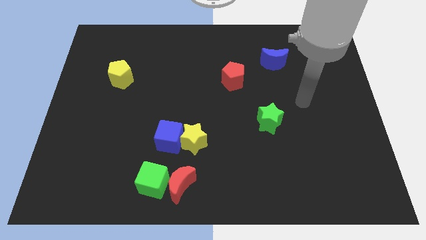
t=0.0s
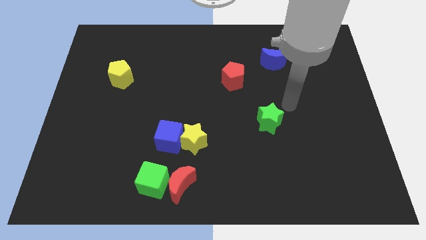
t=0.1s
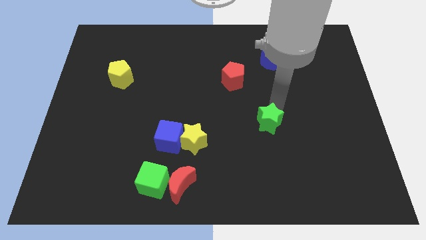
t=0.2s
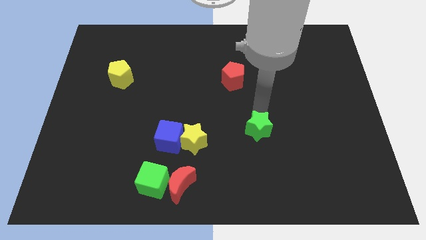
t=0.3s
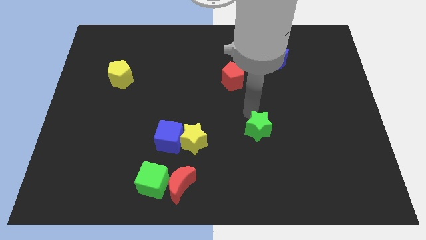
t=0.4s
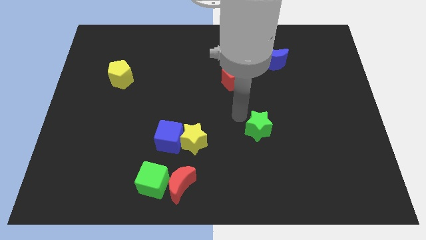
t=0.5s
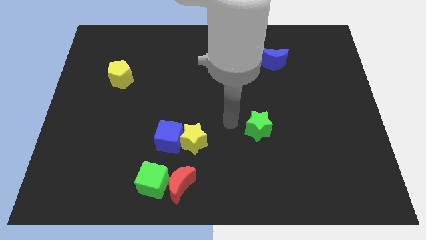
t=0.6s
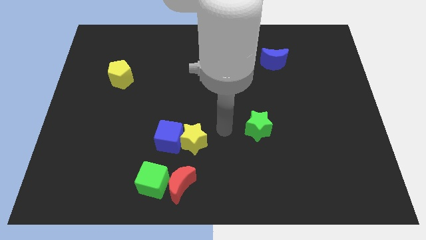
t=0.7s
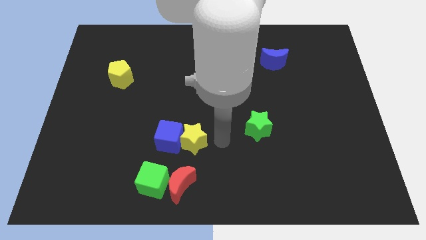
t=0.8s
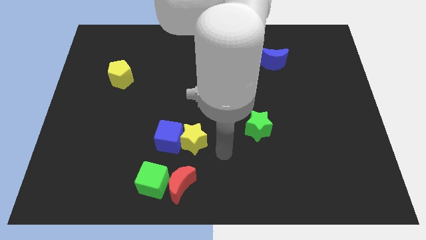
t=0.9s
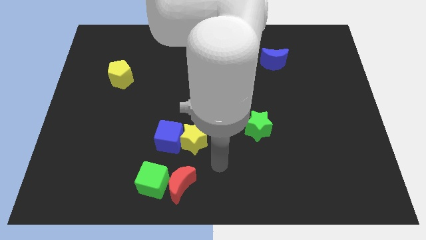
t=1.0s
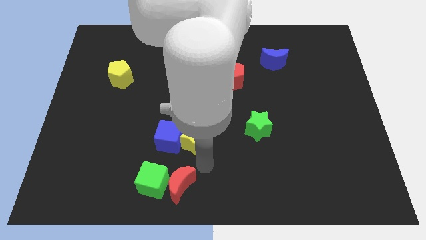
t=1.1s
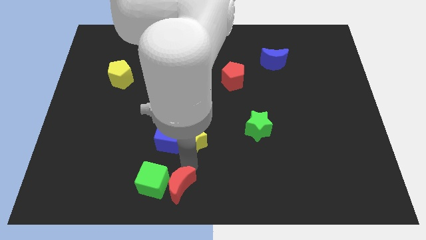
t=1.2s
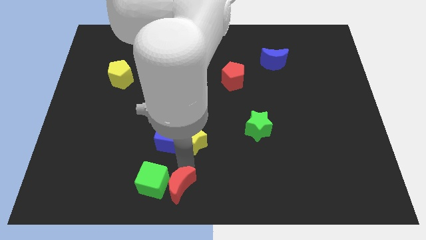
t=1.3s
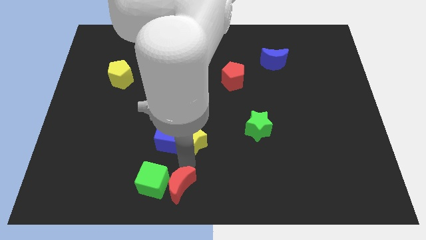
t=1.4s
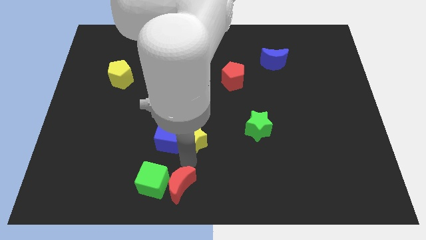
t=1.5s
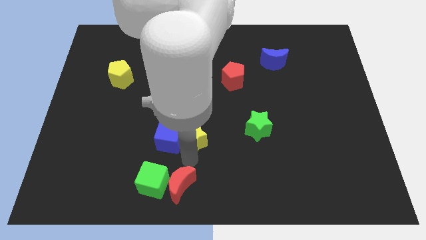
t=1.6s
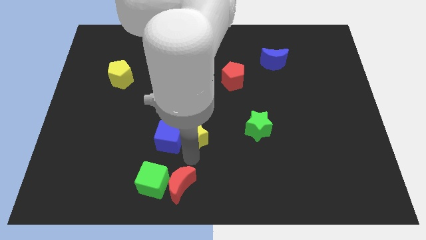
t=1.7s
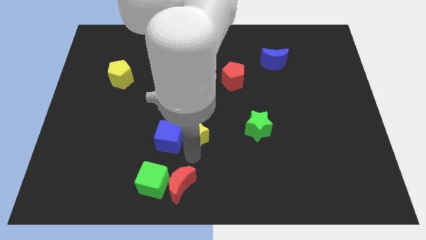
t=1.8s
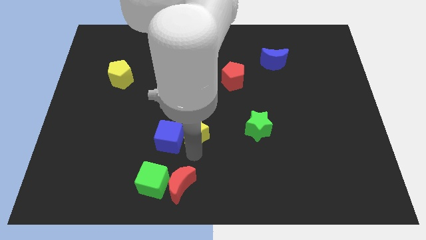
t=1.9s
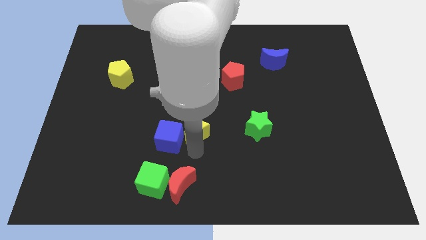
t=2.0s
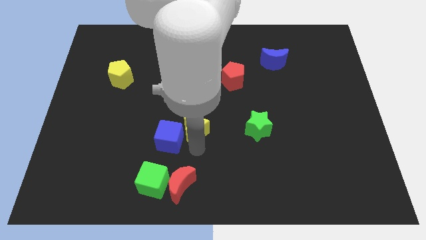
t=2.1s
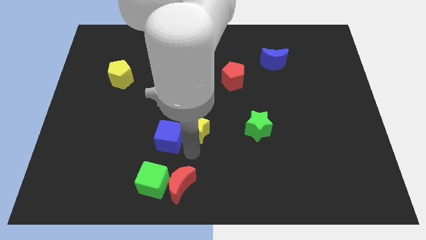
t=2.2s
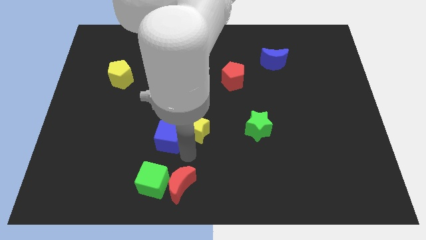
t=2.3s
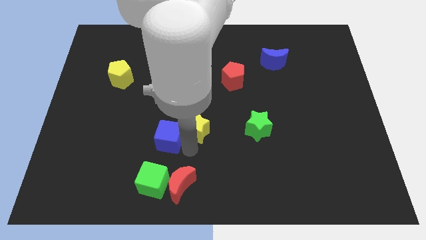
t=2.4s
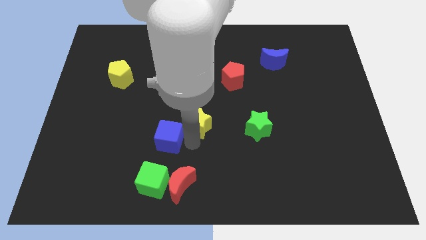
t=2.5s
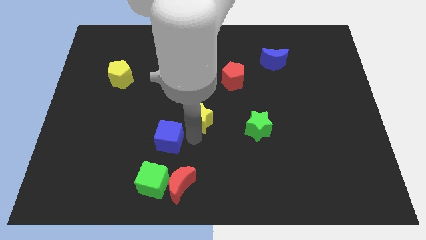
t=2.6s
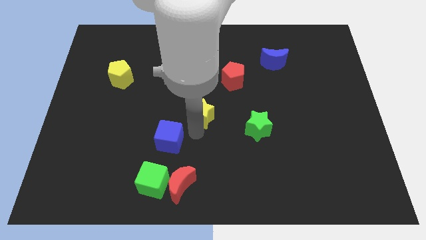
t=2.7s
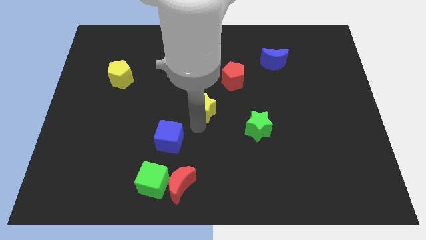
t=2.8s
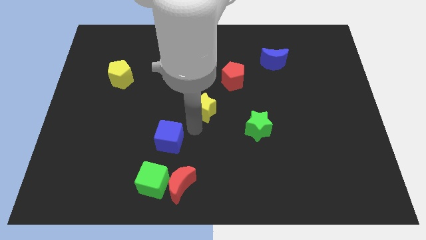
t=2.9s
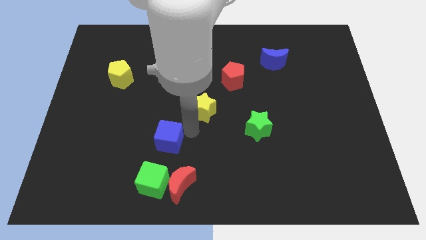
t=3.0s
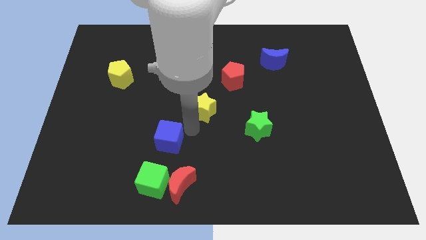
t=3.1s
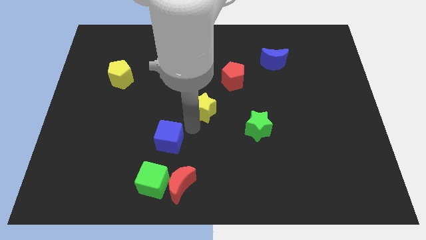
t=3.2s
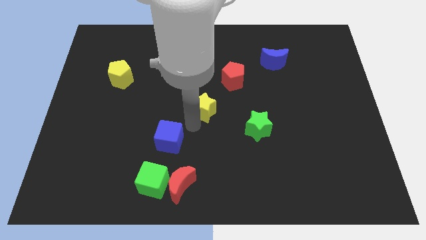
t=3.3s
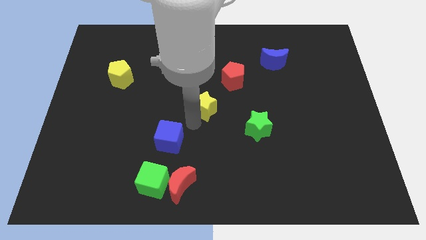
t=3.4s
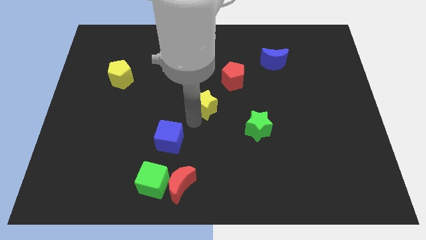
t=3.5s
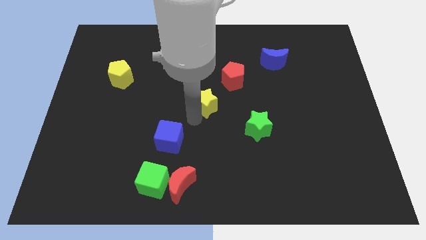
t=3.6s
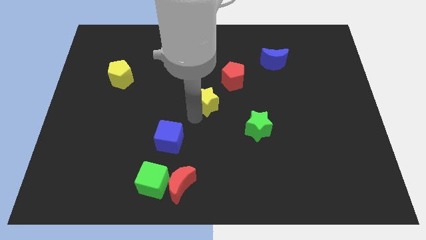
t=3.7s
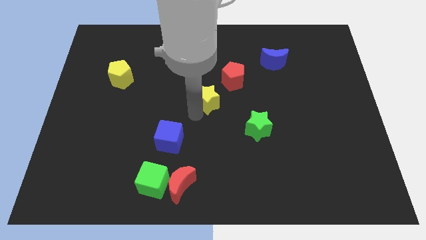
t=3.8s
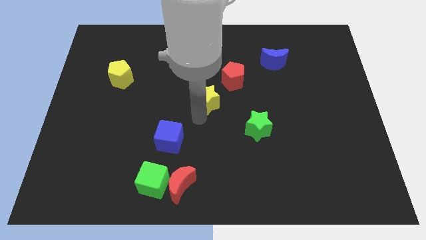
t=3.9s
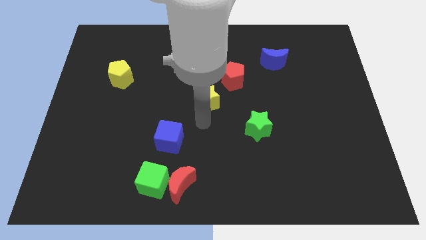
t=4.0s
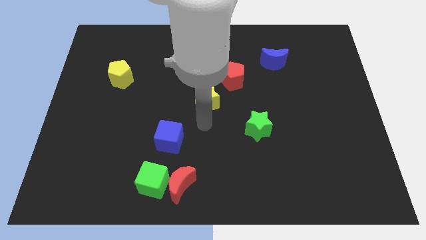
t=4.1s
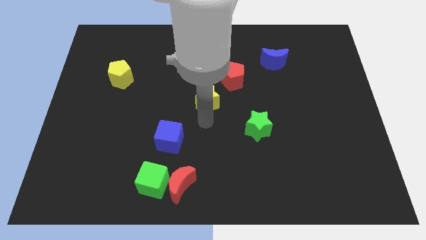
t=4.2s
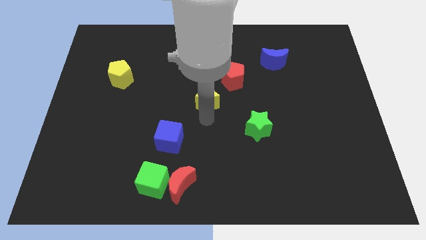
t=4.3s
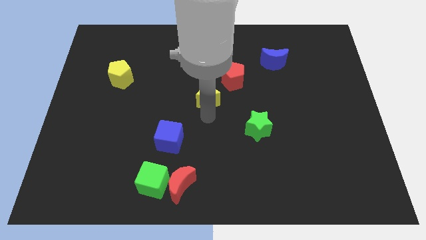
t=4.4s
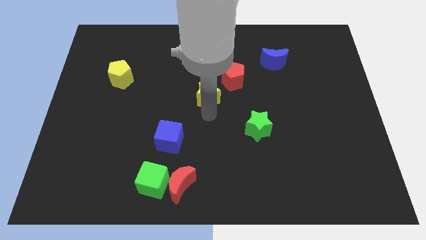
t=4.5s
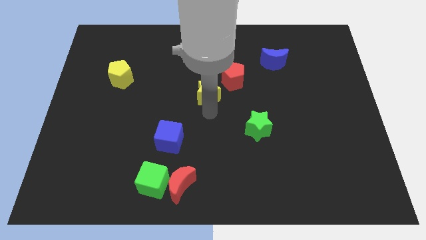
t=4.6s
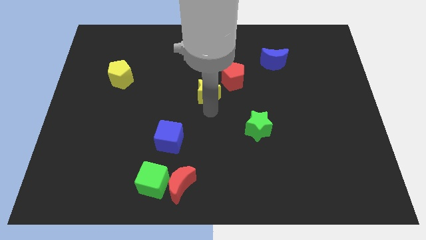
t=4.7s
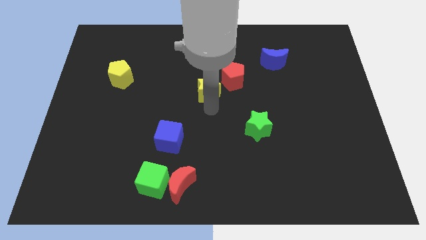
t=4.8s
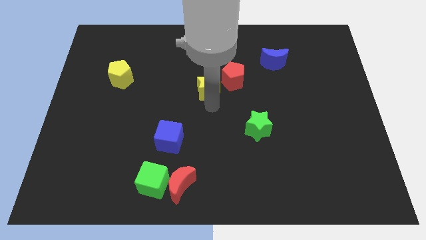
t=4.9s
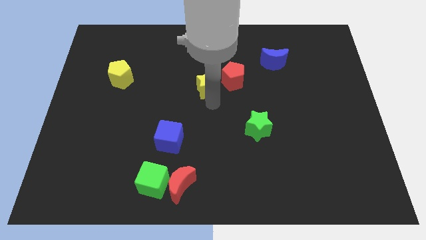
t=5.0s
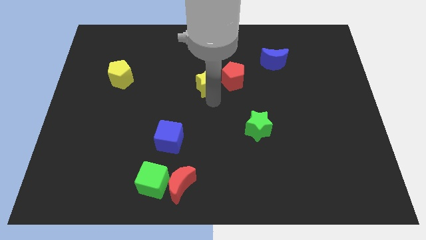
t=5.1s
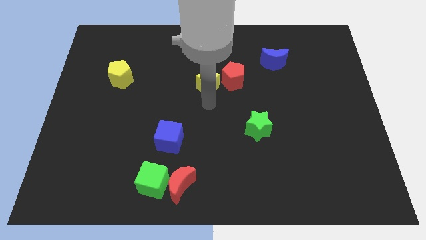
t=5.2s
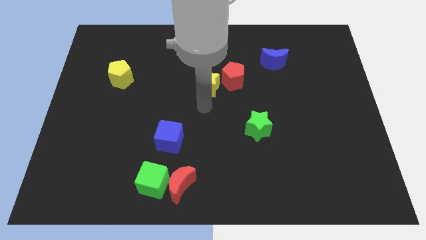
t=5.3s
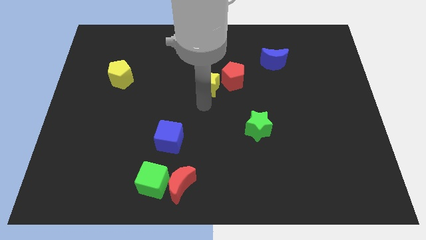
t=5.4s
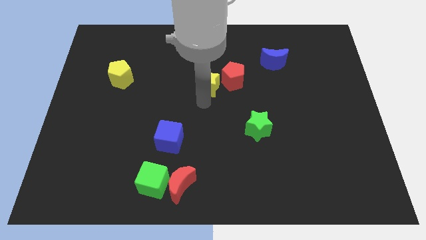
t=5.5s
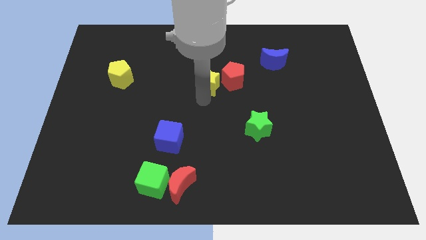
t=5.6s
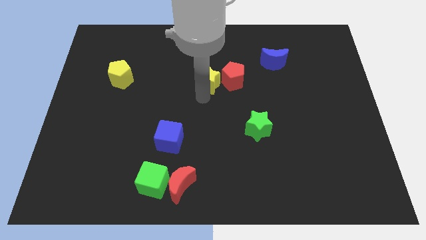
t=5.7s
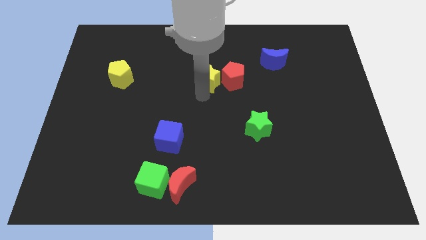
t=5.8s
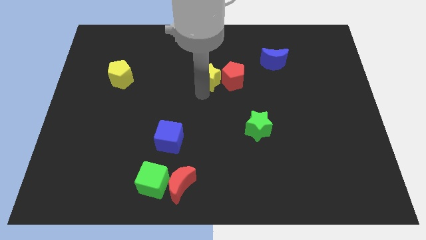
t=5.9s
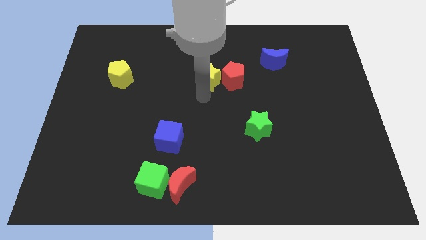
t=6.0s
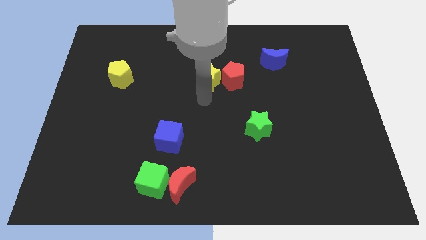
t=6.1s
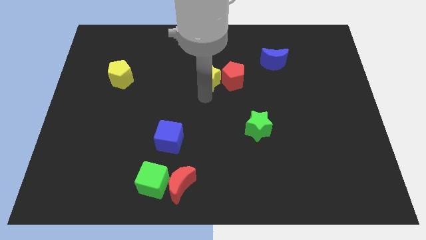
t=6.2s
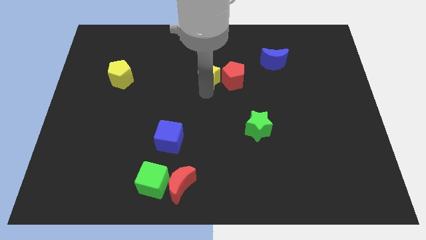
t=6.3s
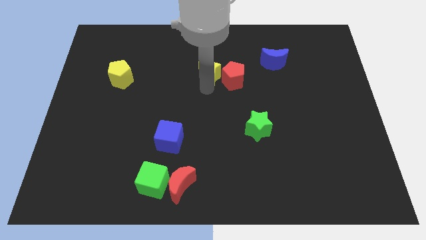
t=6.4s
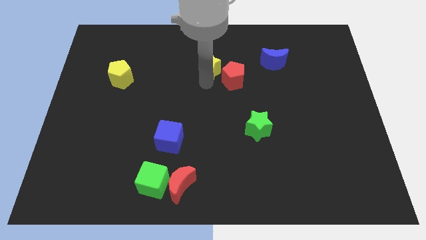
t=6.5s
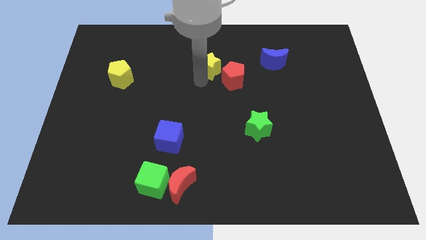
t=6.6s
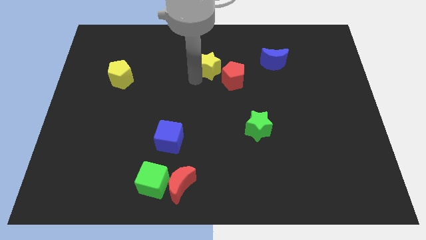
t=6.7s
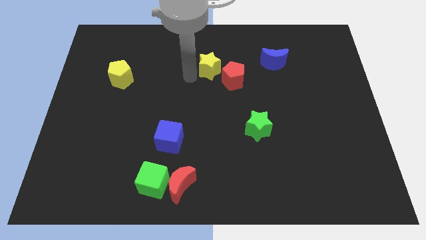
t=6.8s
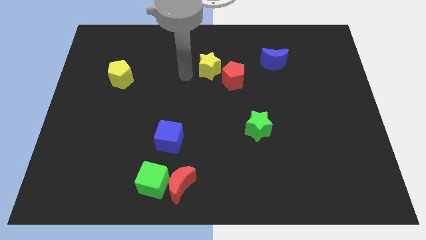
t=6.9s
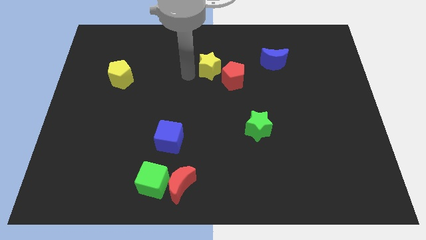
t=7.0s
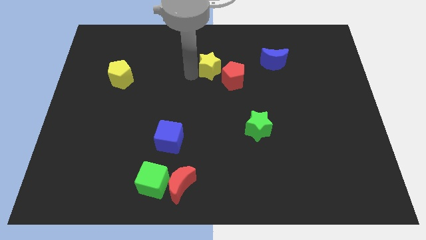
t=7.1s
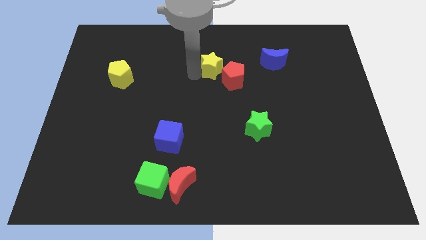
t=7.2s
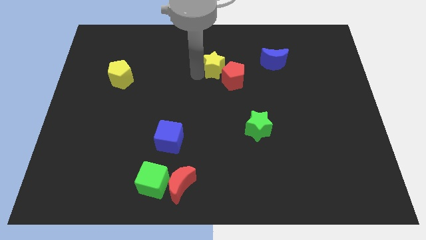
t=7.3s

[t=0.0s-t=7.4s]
push the yellow star left of the blue moon

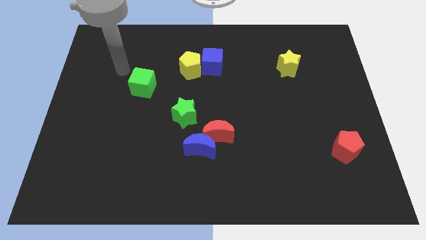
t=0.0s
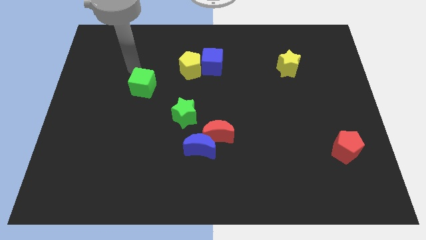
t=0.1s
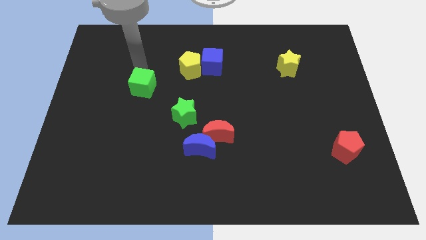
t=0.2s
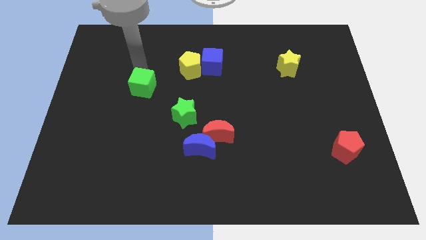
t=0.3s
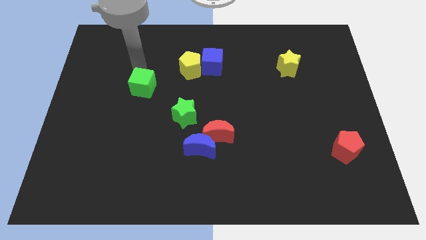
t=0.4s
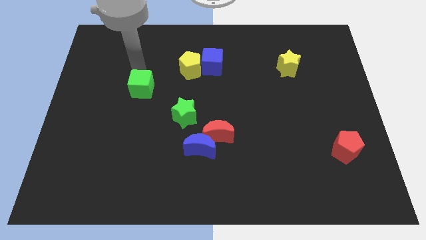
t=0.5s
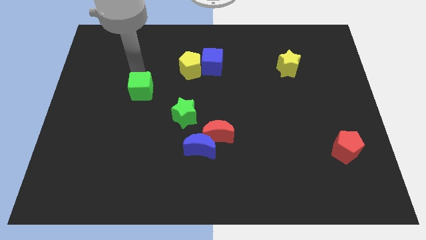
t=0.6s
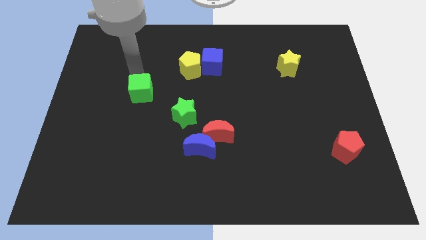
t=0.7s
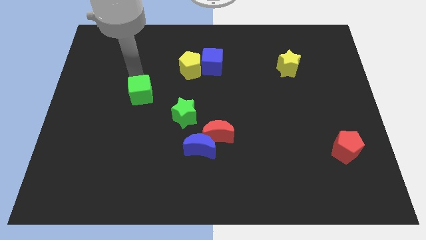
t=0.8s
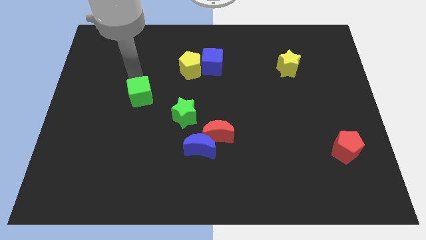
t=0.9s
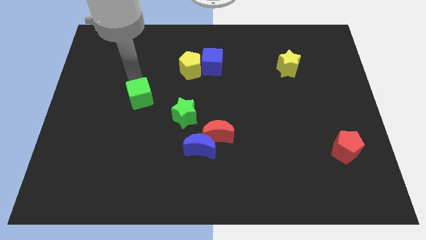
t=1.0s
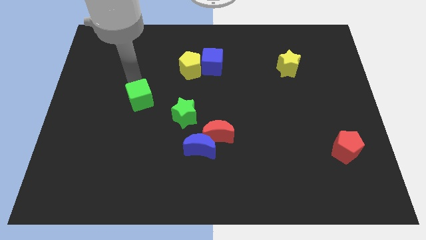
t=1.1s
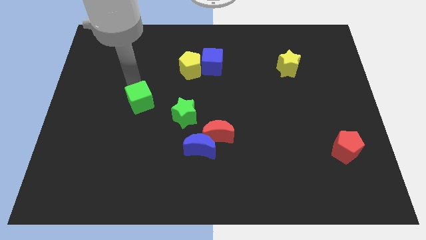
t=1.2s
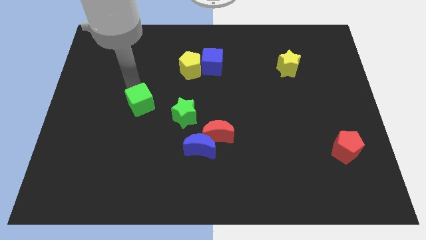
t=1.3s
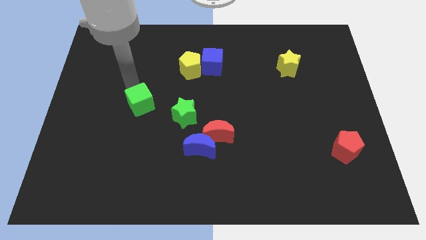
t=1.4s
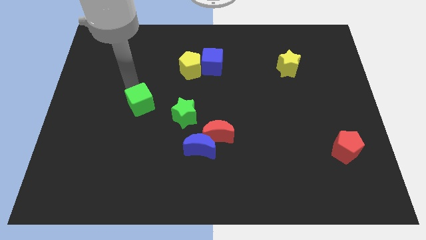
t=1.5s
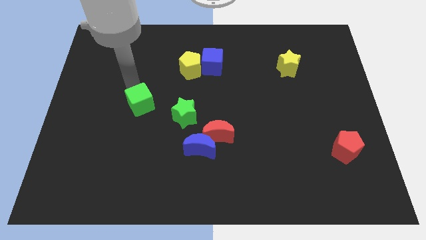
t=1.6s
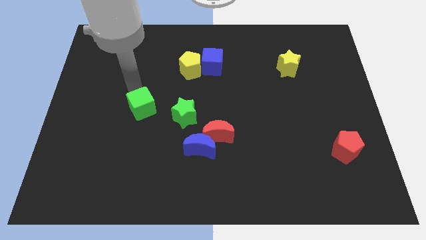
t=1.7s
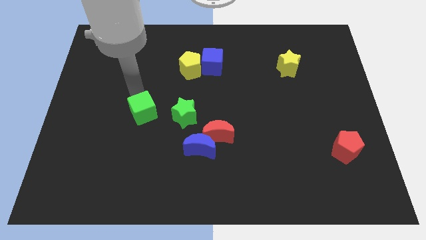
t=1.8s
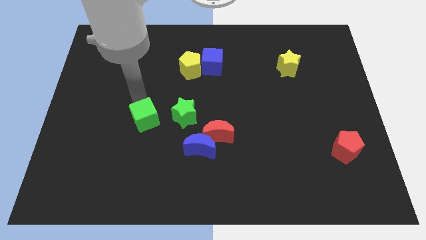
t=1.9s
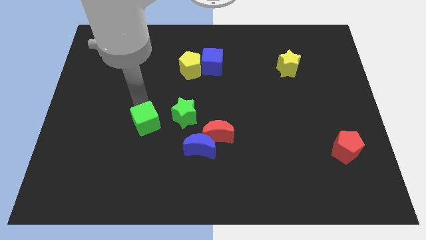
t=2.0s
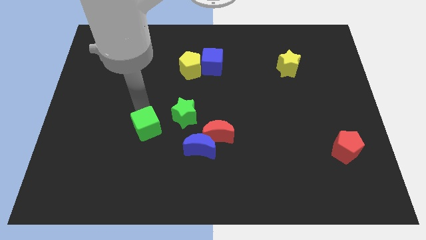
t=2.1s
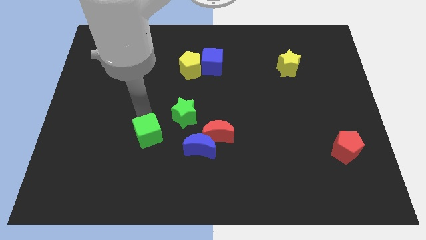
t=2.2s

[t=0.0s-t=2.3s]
slide the green cube to the left side of the blue moon
